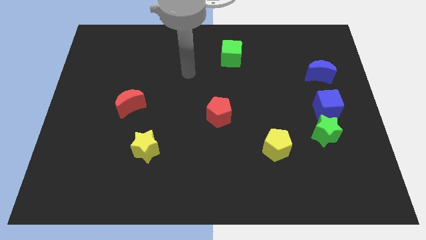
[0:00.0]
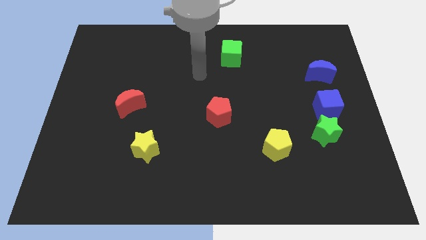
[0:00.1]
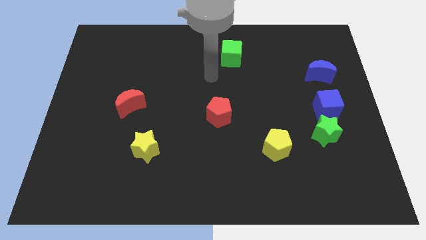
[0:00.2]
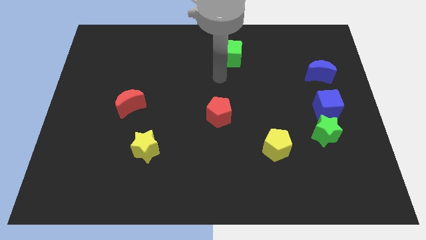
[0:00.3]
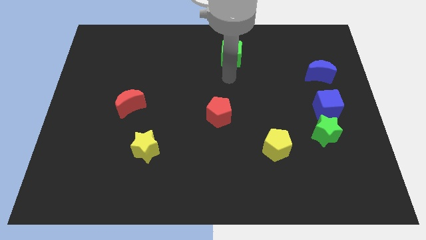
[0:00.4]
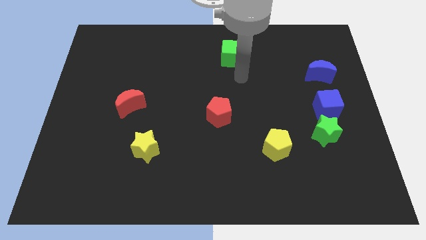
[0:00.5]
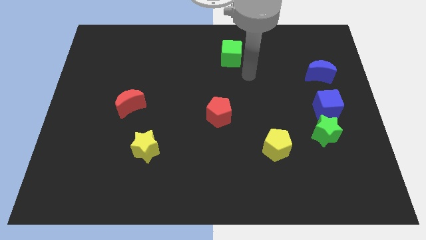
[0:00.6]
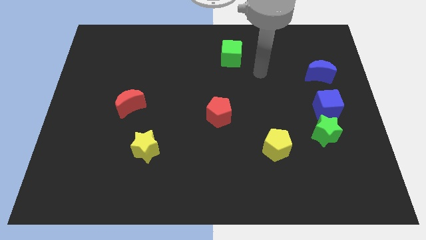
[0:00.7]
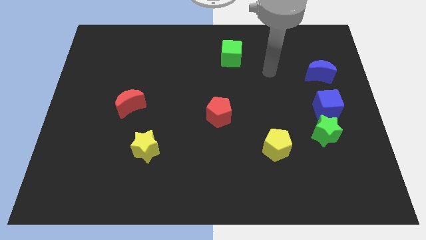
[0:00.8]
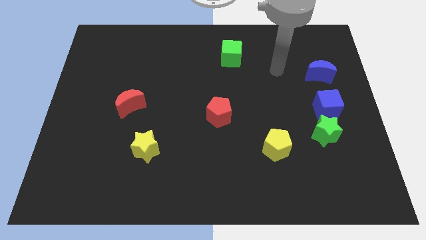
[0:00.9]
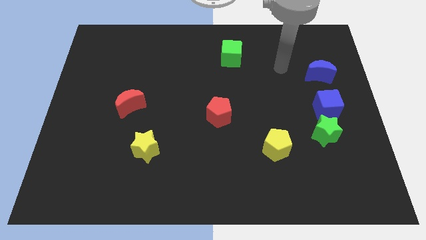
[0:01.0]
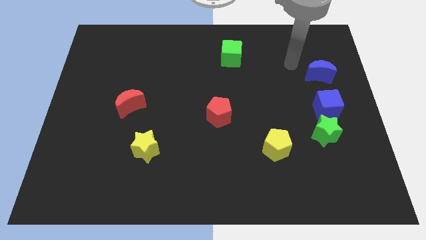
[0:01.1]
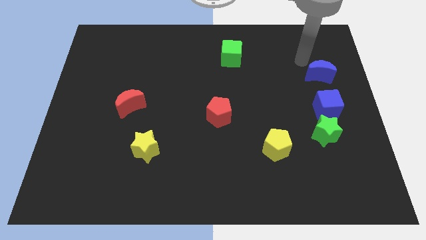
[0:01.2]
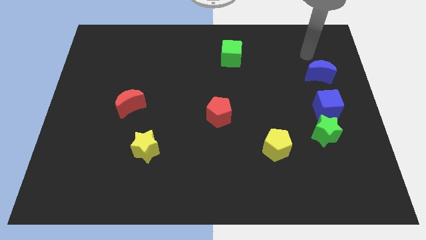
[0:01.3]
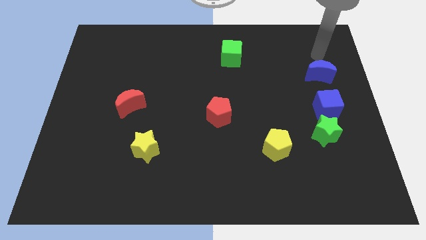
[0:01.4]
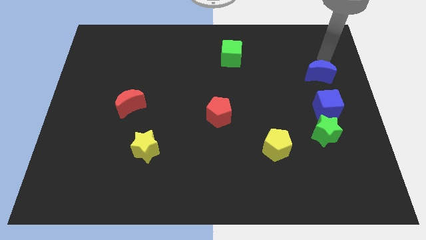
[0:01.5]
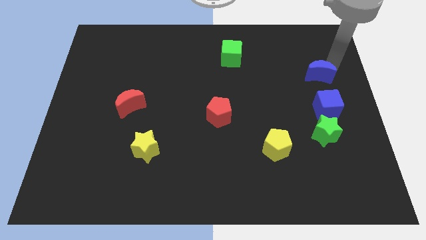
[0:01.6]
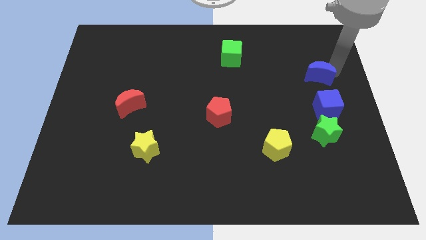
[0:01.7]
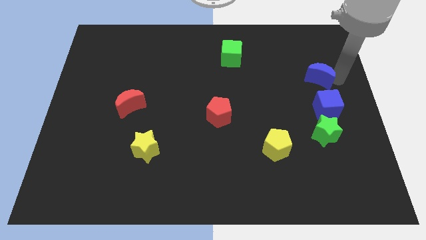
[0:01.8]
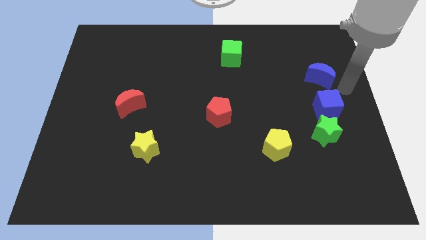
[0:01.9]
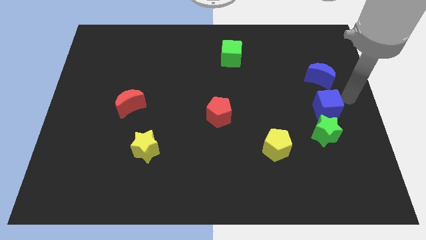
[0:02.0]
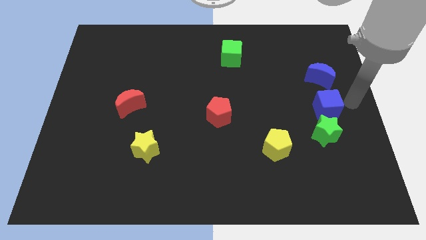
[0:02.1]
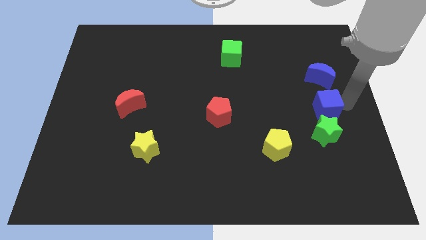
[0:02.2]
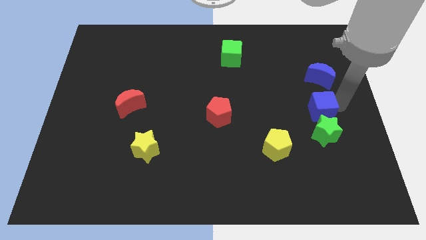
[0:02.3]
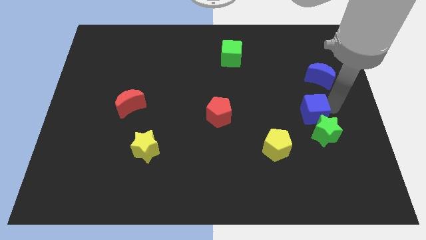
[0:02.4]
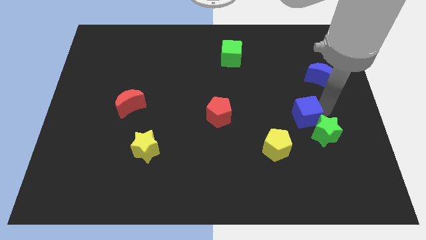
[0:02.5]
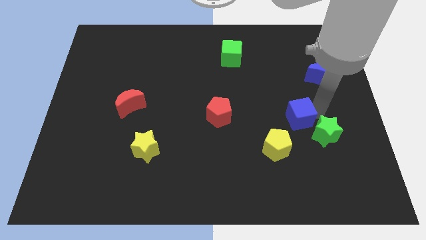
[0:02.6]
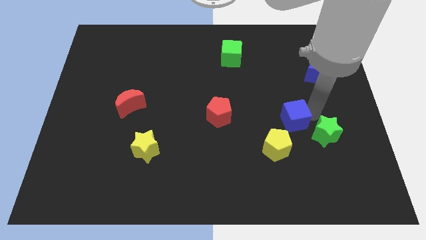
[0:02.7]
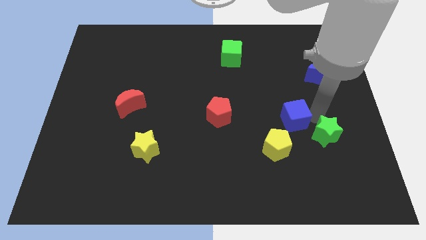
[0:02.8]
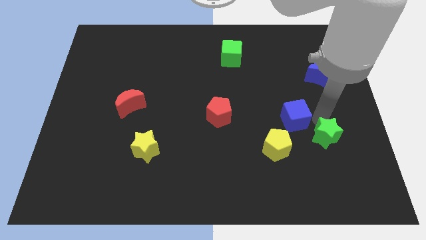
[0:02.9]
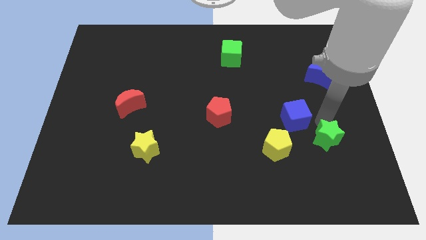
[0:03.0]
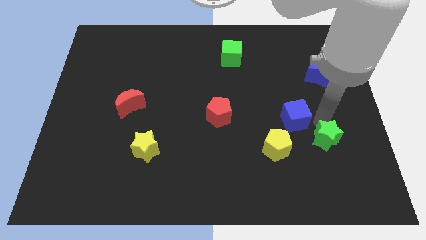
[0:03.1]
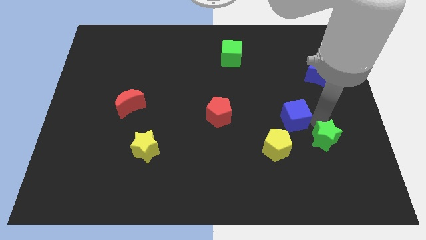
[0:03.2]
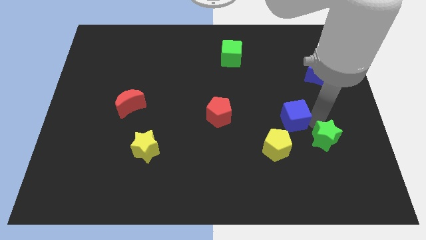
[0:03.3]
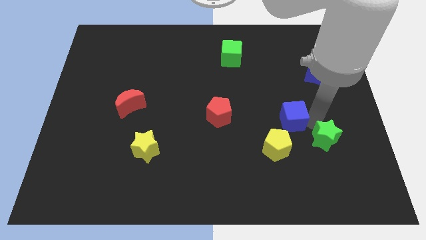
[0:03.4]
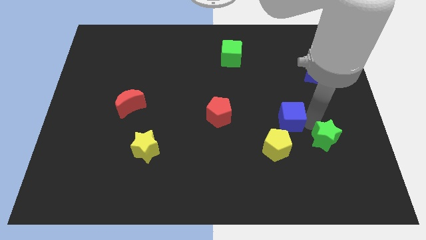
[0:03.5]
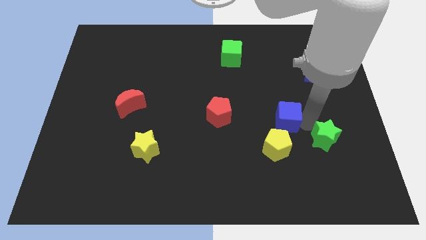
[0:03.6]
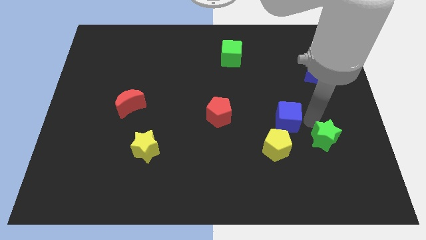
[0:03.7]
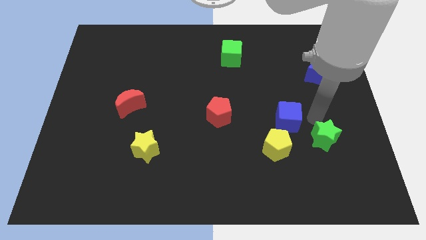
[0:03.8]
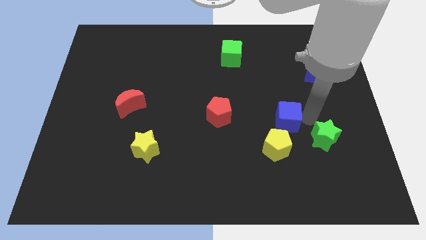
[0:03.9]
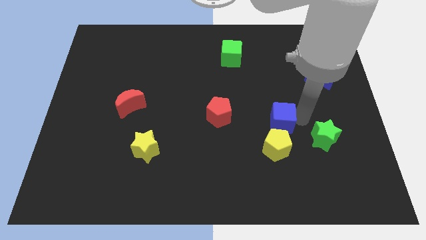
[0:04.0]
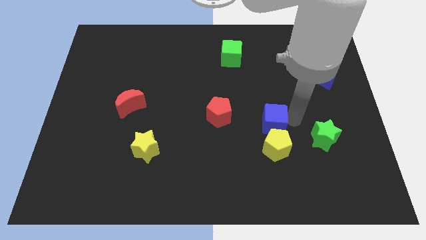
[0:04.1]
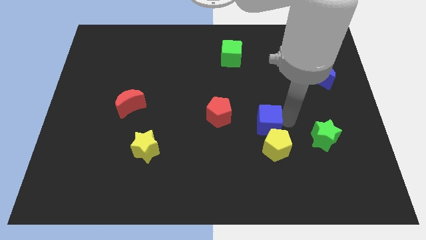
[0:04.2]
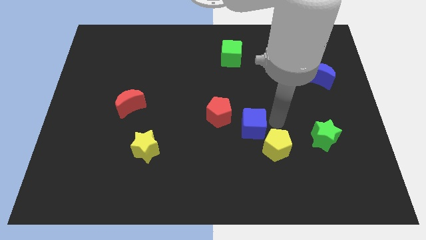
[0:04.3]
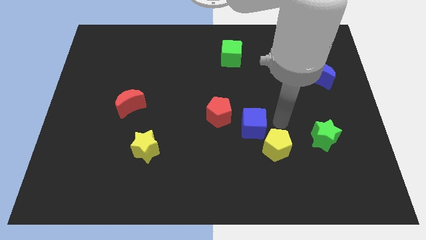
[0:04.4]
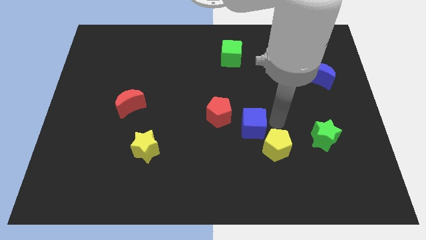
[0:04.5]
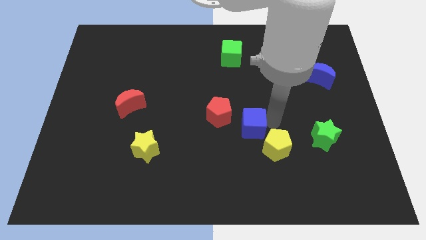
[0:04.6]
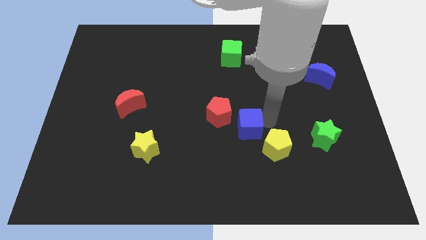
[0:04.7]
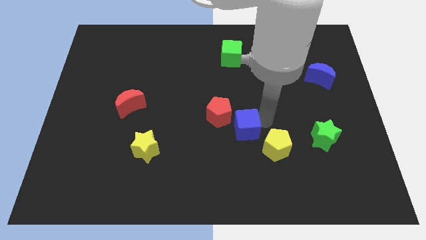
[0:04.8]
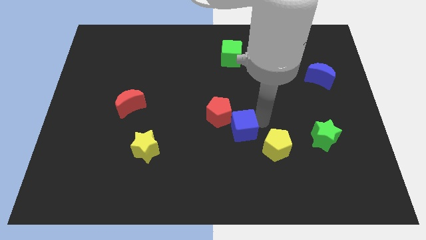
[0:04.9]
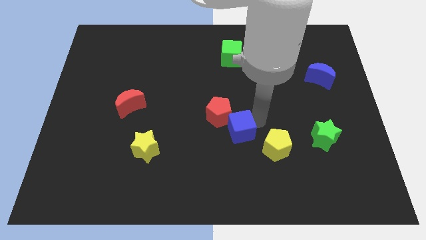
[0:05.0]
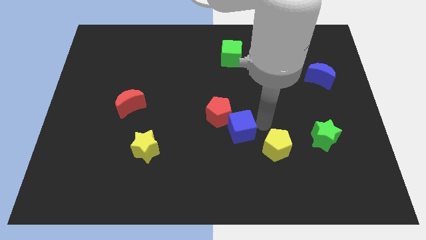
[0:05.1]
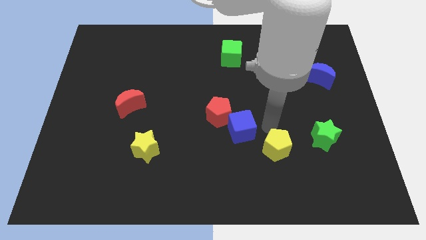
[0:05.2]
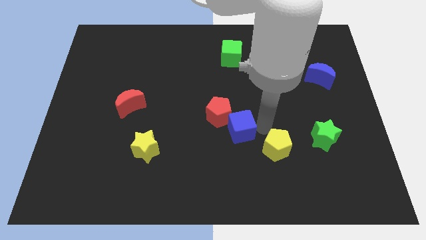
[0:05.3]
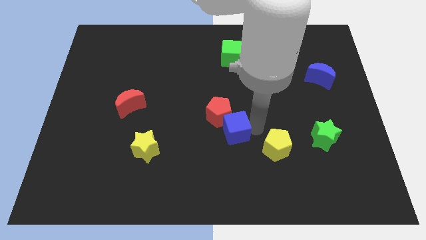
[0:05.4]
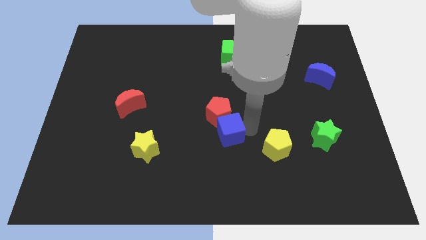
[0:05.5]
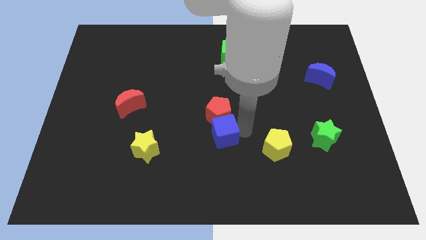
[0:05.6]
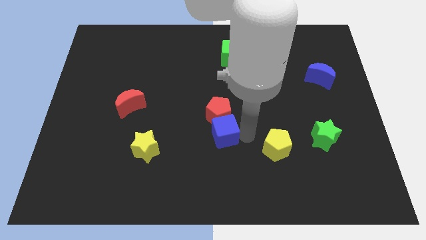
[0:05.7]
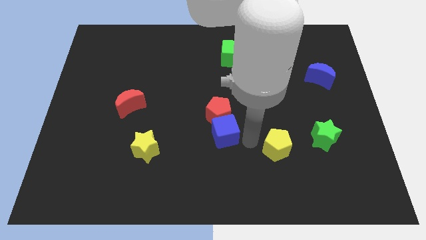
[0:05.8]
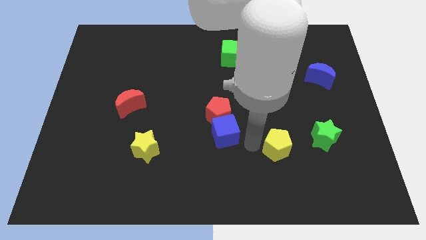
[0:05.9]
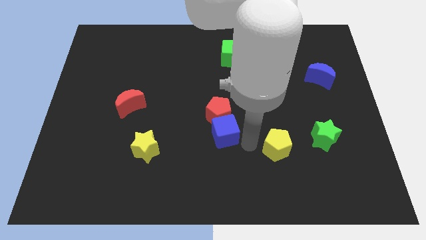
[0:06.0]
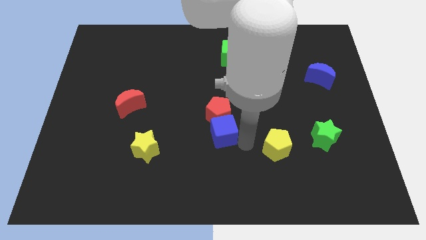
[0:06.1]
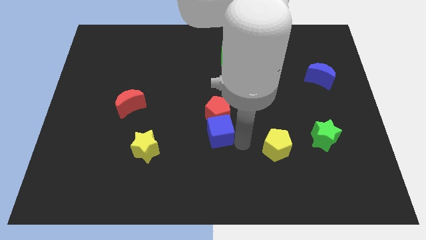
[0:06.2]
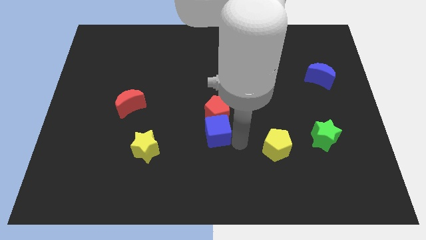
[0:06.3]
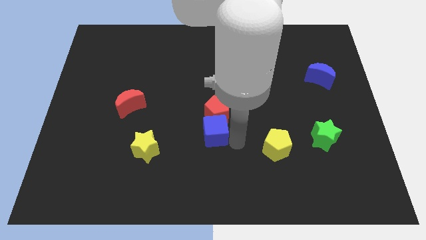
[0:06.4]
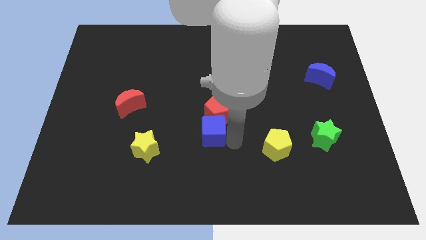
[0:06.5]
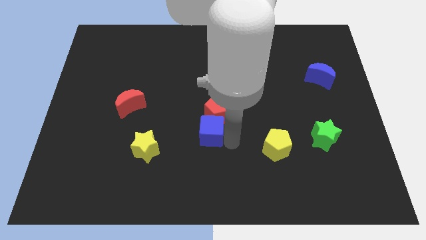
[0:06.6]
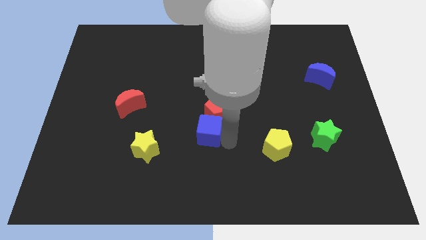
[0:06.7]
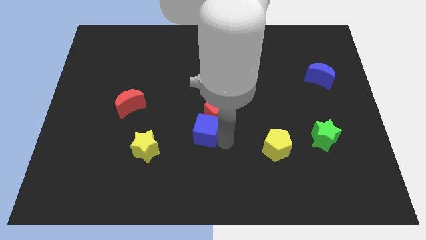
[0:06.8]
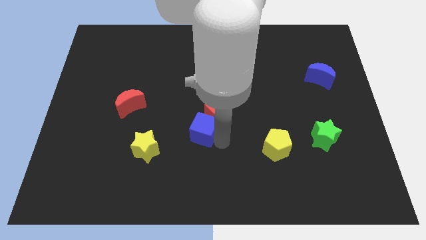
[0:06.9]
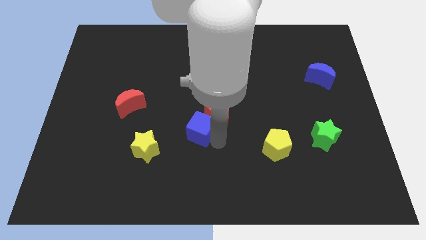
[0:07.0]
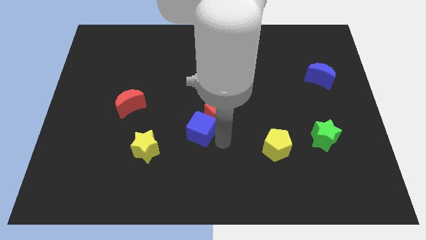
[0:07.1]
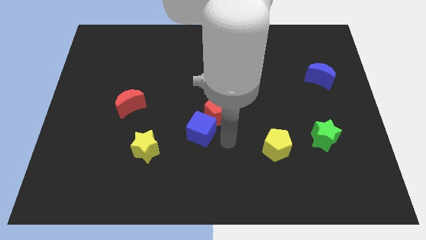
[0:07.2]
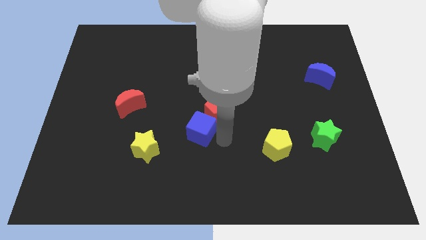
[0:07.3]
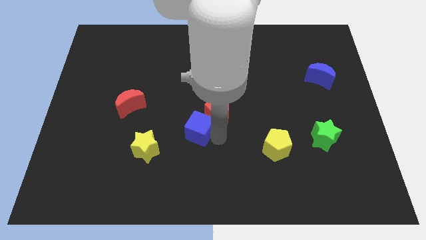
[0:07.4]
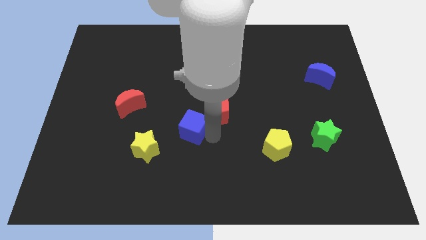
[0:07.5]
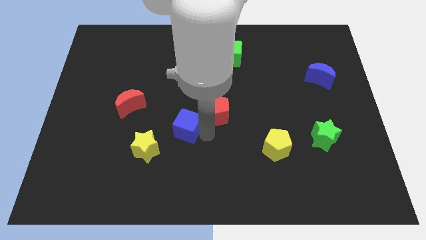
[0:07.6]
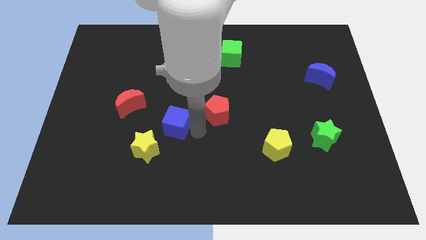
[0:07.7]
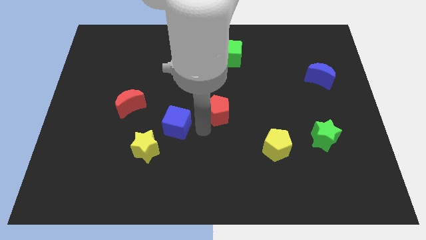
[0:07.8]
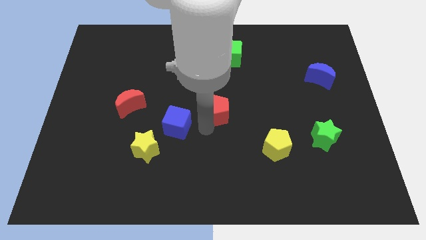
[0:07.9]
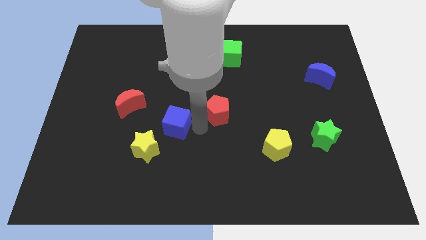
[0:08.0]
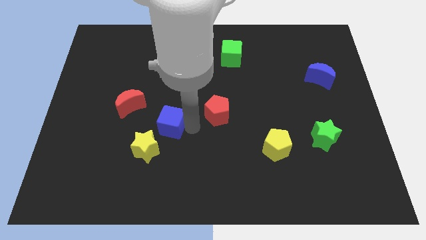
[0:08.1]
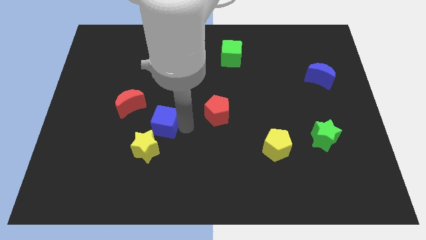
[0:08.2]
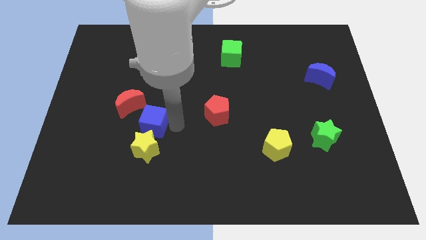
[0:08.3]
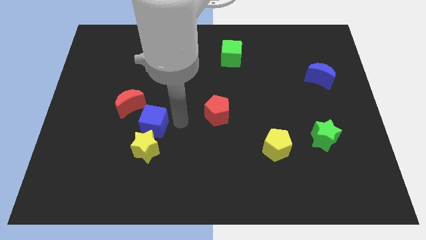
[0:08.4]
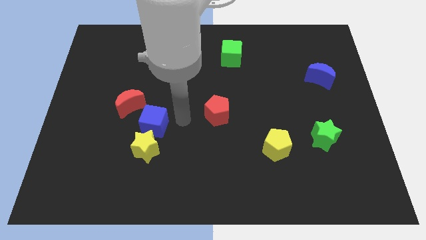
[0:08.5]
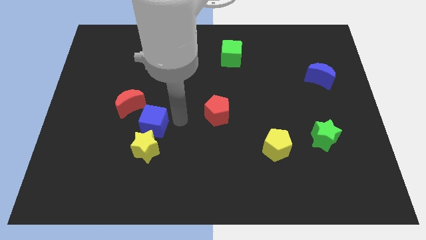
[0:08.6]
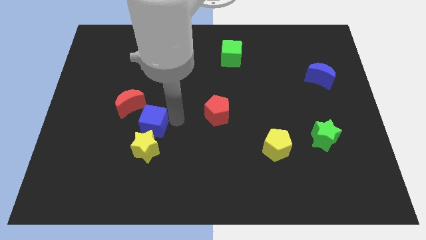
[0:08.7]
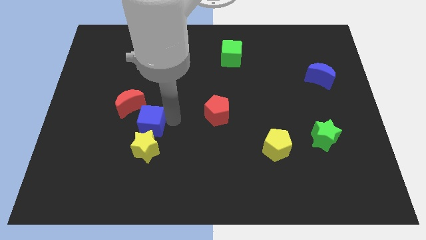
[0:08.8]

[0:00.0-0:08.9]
put the blue cube to the top left of the yellow star
